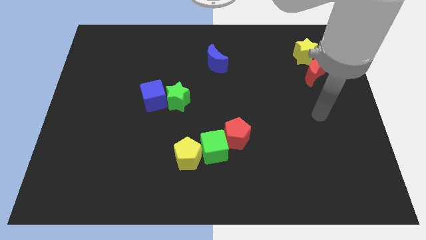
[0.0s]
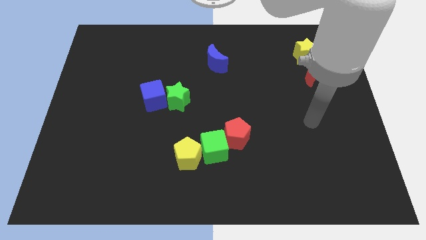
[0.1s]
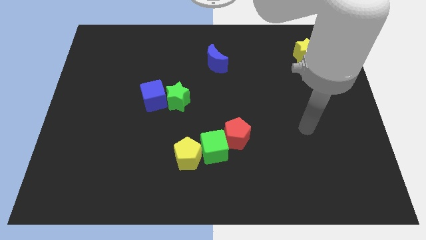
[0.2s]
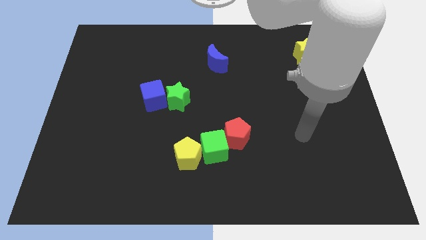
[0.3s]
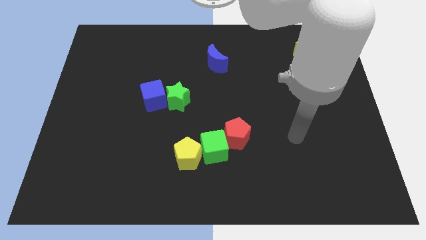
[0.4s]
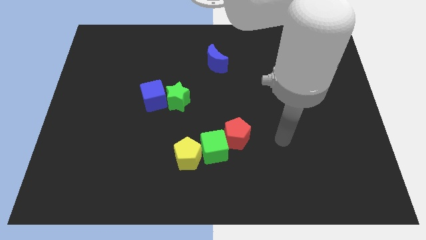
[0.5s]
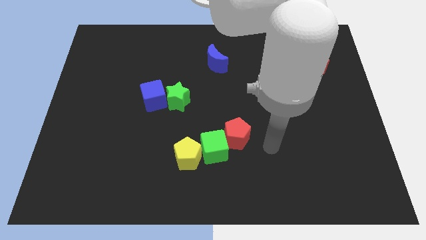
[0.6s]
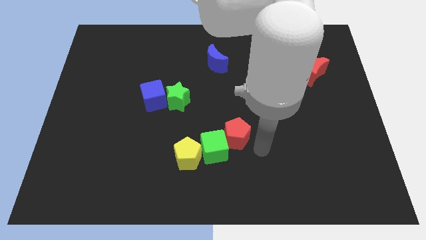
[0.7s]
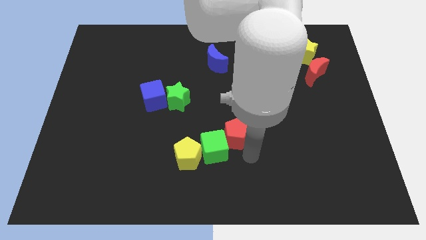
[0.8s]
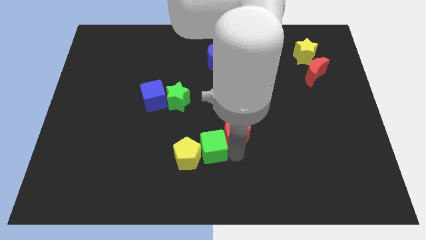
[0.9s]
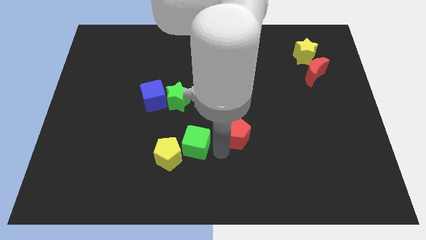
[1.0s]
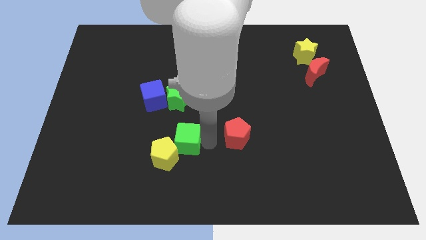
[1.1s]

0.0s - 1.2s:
move the red pentagon away from the green cube

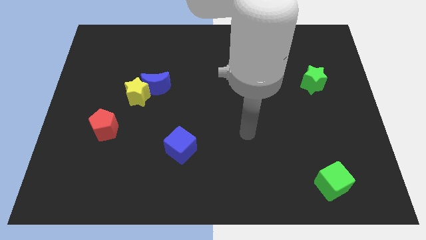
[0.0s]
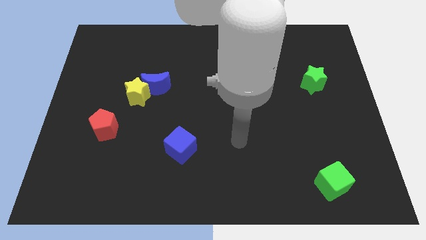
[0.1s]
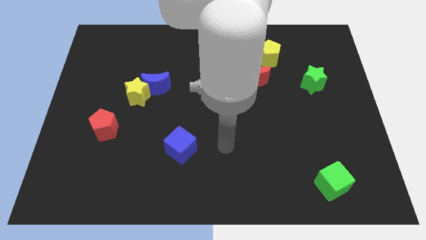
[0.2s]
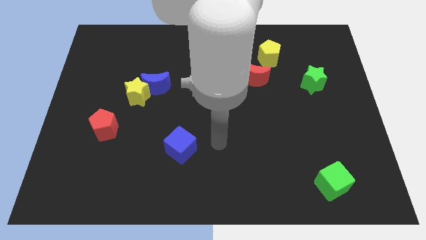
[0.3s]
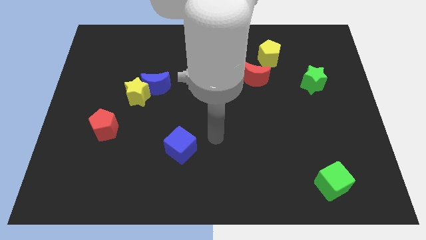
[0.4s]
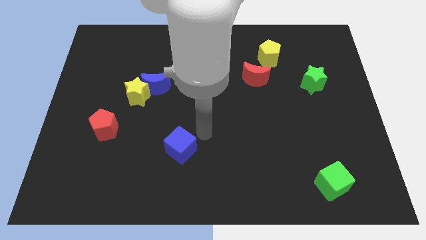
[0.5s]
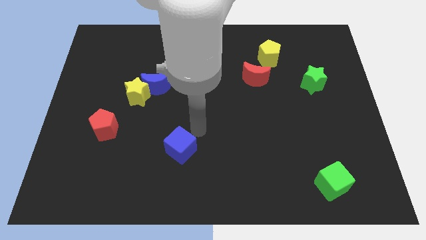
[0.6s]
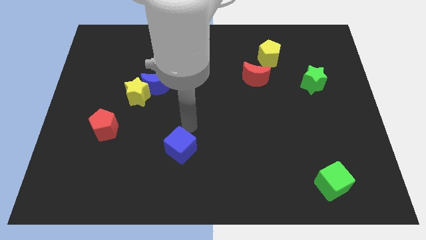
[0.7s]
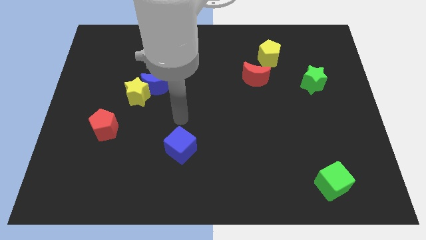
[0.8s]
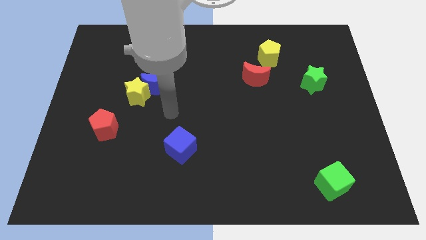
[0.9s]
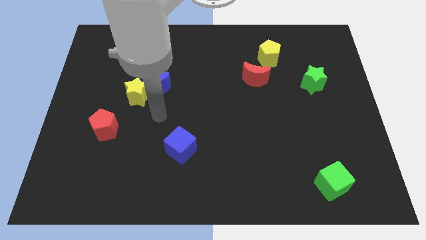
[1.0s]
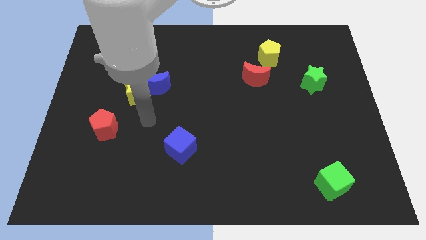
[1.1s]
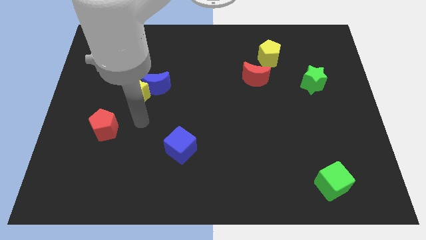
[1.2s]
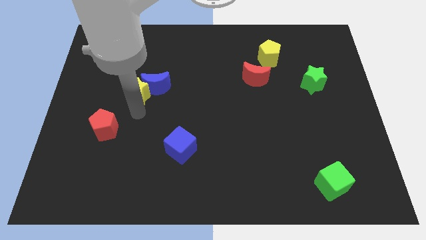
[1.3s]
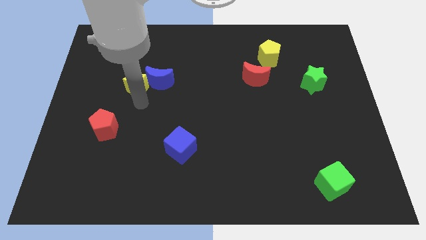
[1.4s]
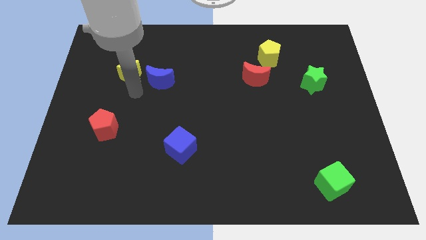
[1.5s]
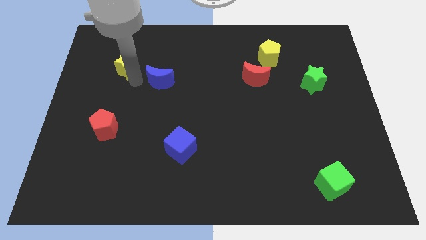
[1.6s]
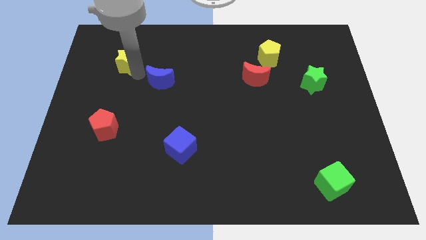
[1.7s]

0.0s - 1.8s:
separate the blue moon from the yellow star

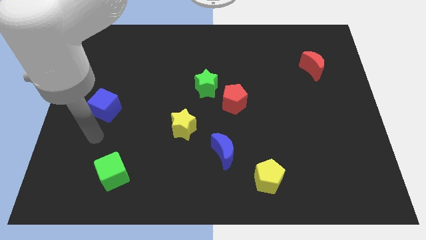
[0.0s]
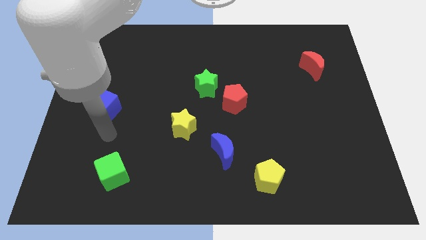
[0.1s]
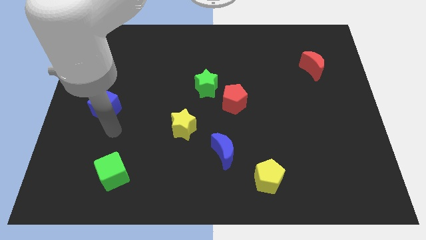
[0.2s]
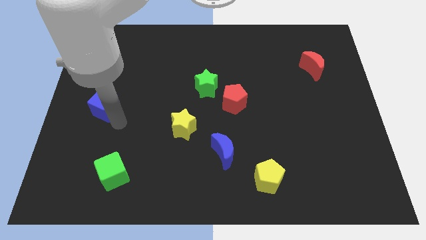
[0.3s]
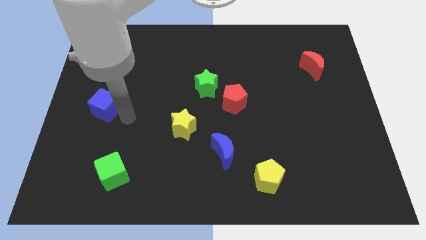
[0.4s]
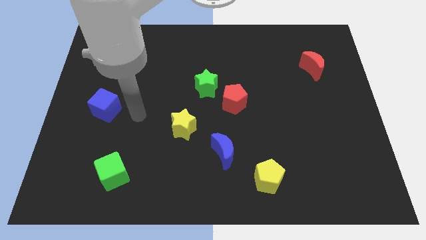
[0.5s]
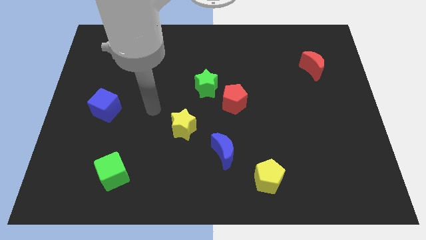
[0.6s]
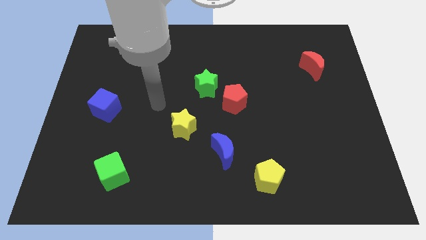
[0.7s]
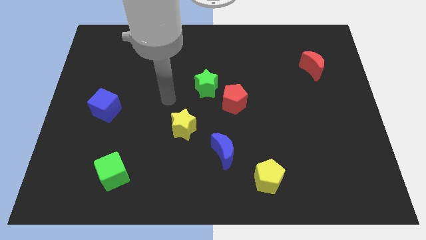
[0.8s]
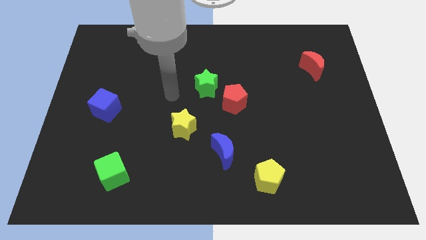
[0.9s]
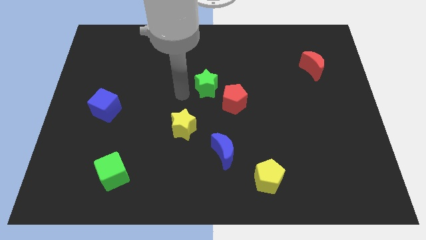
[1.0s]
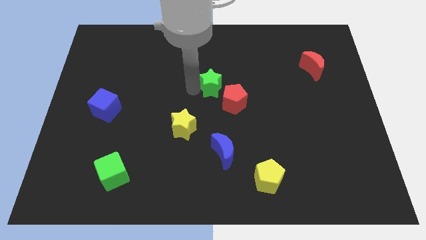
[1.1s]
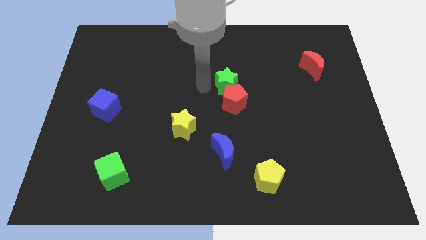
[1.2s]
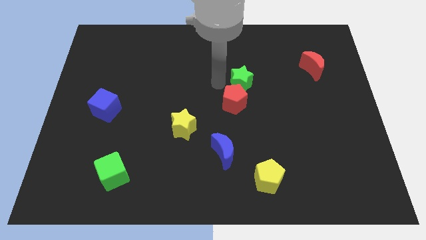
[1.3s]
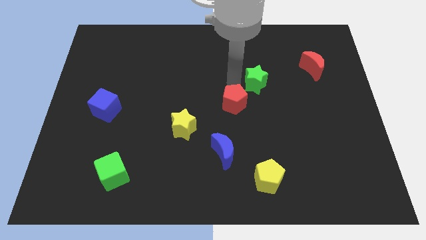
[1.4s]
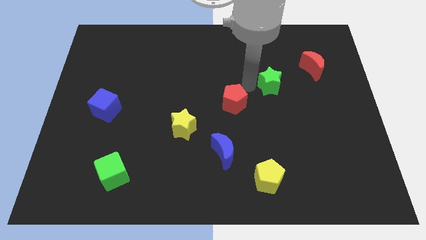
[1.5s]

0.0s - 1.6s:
separate the red pentagon from the green star

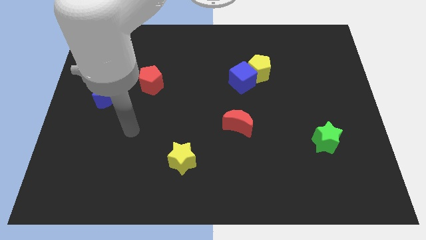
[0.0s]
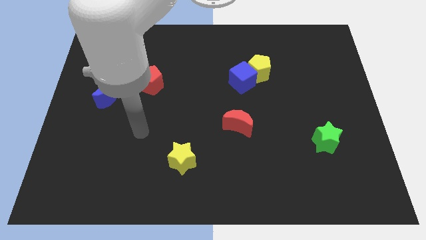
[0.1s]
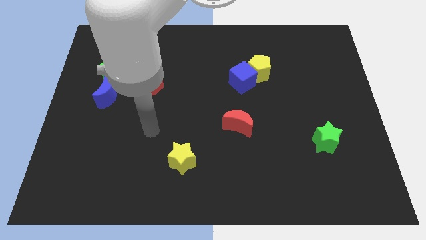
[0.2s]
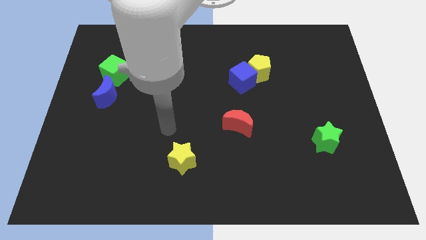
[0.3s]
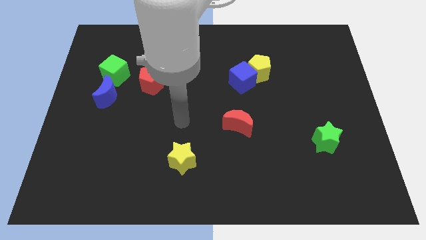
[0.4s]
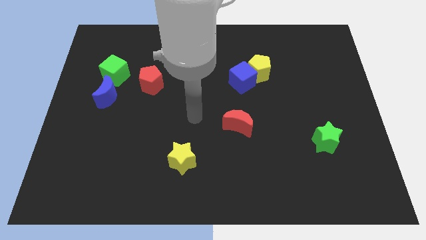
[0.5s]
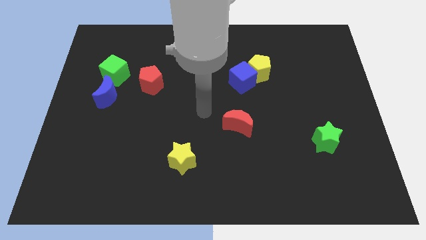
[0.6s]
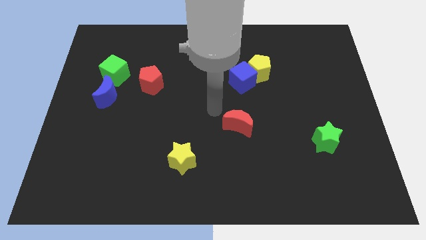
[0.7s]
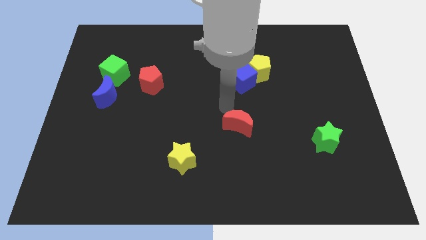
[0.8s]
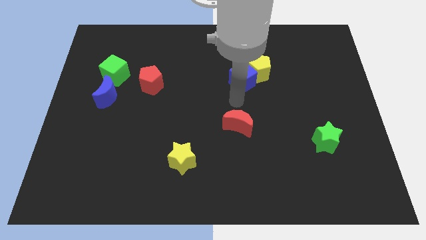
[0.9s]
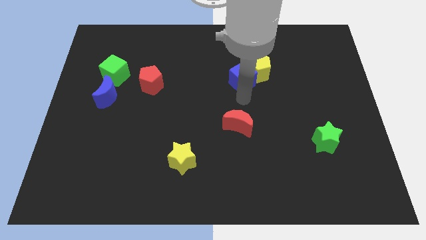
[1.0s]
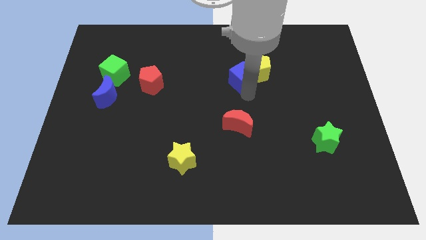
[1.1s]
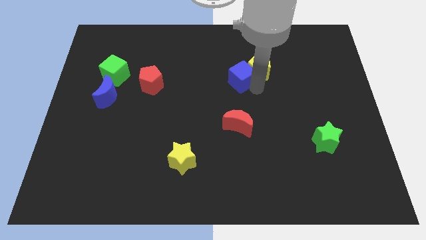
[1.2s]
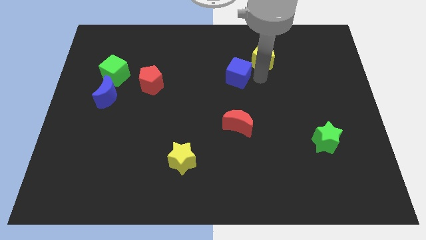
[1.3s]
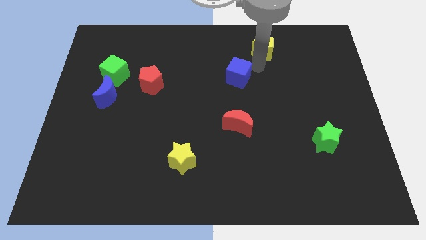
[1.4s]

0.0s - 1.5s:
separate the blue cube from the yellow pentagon

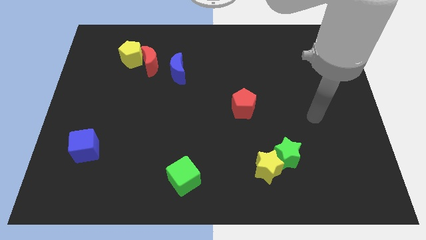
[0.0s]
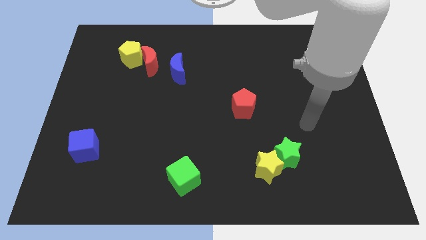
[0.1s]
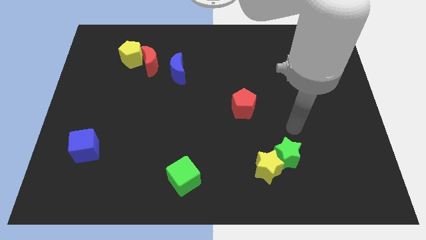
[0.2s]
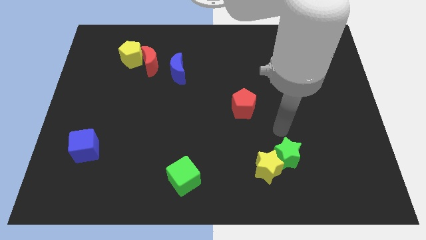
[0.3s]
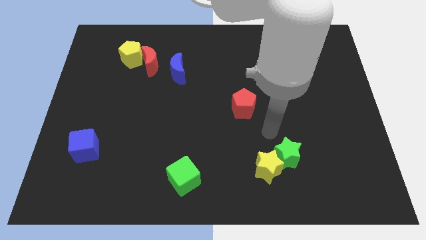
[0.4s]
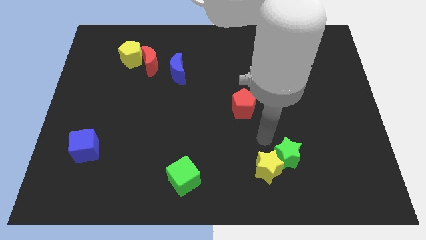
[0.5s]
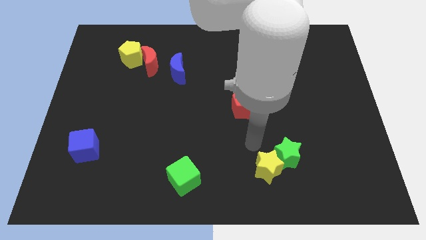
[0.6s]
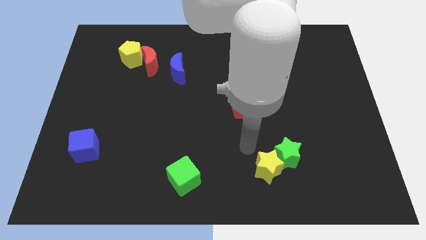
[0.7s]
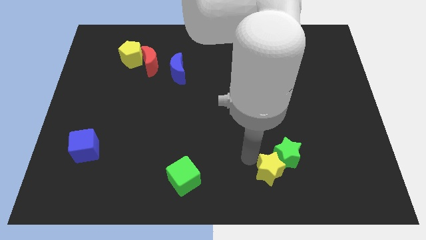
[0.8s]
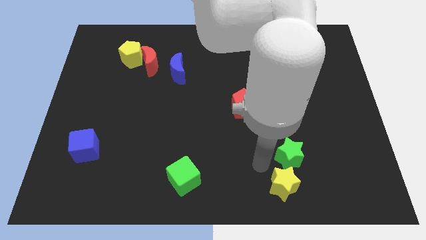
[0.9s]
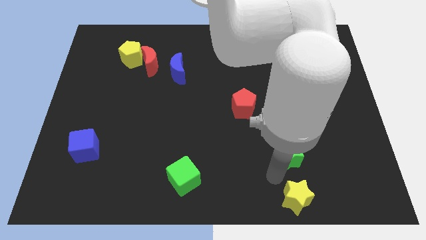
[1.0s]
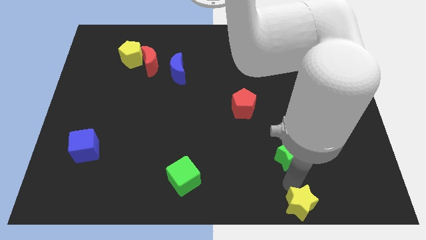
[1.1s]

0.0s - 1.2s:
separate the green star from the yellow star

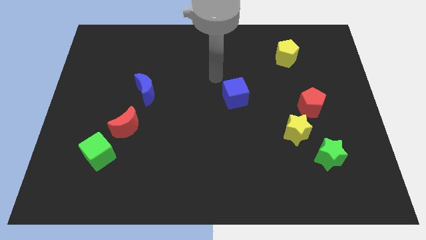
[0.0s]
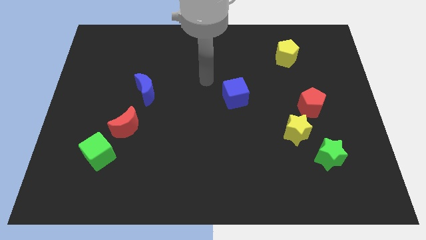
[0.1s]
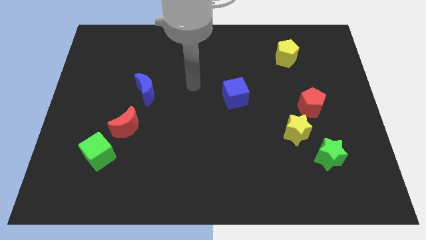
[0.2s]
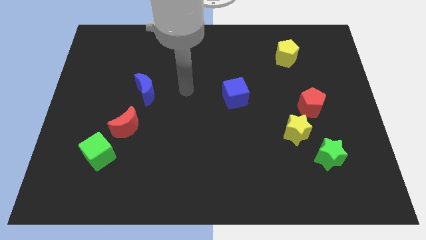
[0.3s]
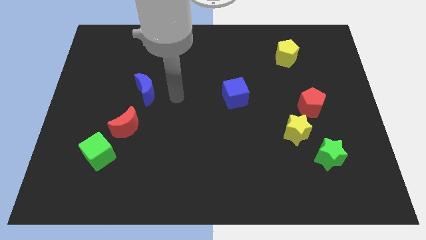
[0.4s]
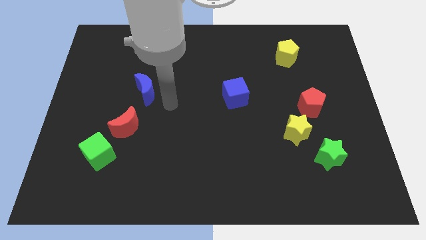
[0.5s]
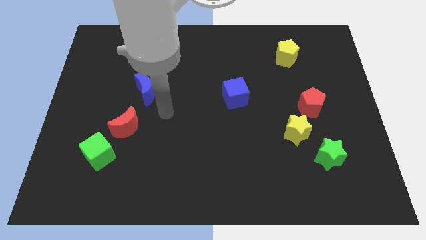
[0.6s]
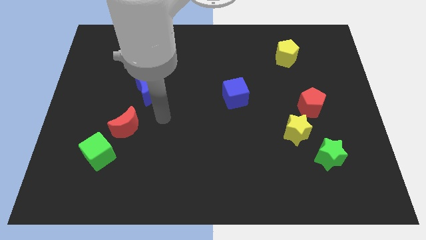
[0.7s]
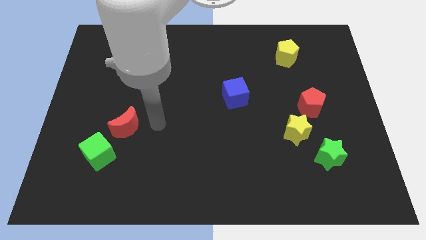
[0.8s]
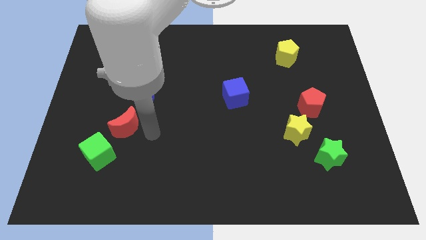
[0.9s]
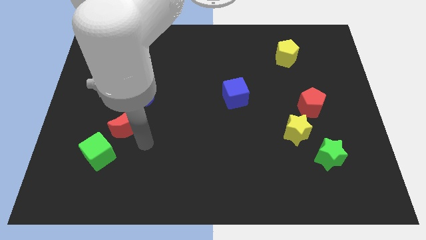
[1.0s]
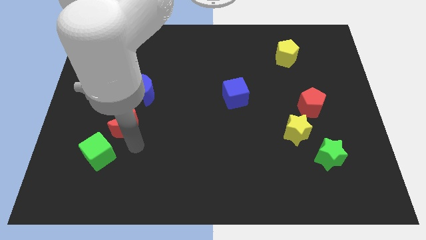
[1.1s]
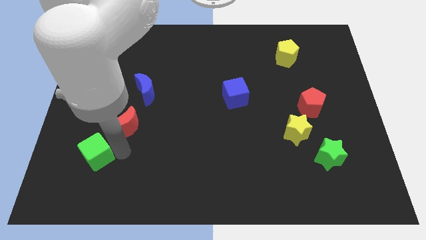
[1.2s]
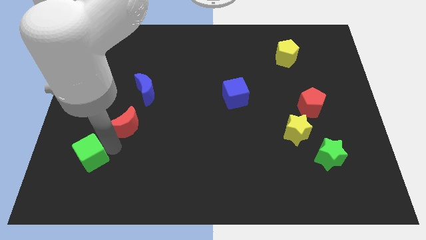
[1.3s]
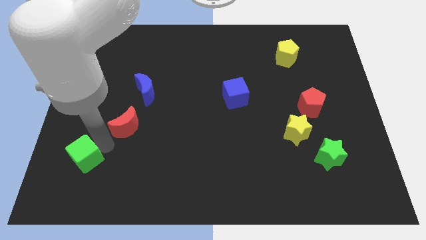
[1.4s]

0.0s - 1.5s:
separate the red moon from the green cube

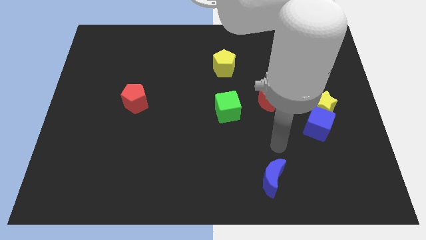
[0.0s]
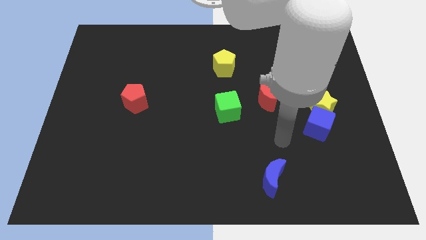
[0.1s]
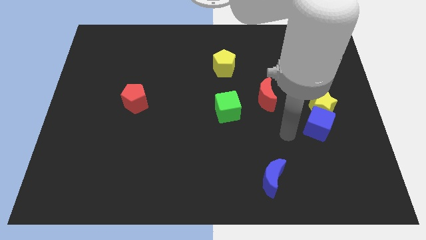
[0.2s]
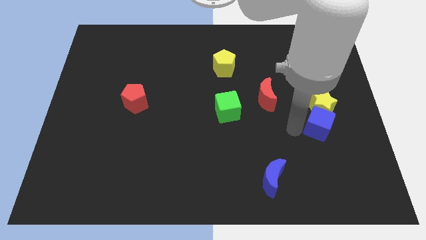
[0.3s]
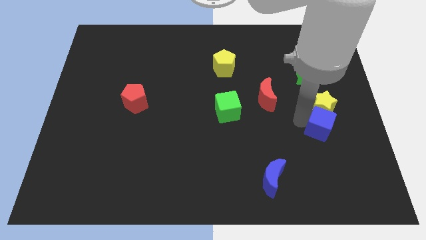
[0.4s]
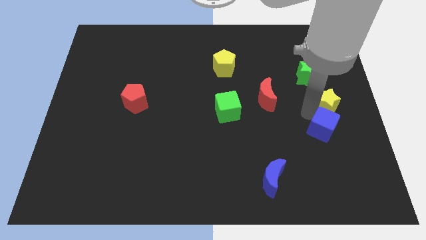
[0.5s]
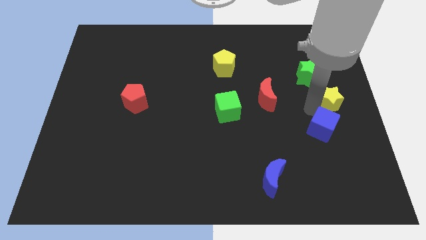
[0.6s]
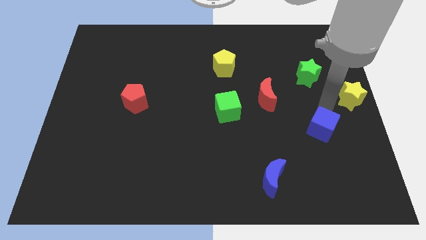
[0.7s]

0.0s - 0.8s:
pull the blue cube apart from the yellow star
